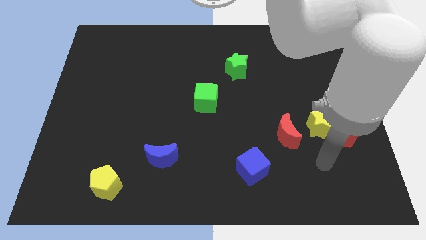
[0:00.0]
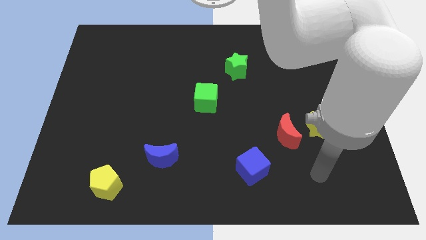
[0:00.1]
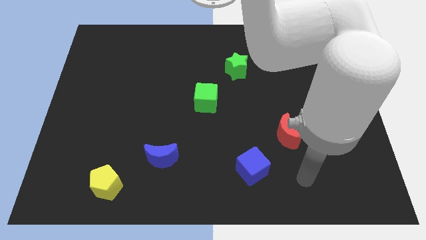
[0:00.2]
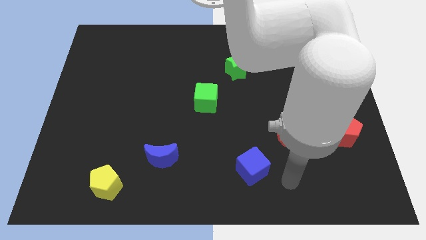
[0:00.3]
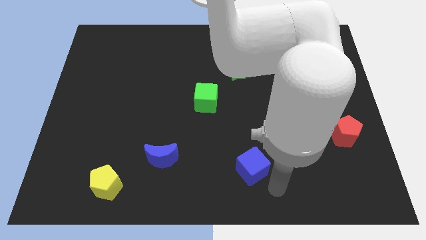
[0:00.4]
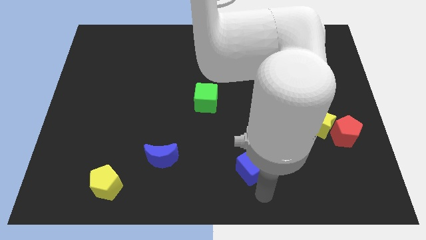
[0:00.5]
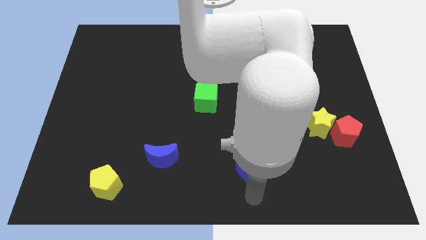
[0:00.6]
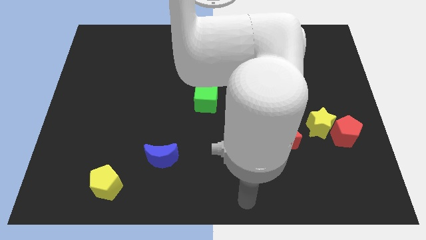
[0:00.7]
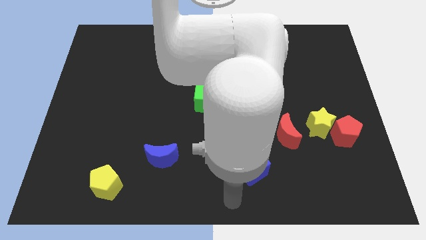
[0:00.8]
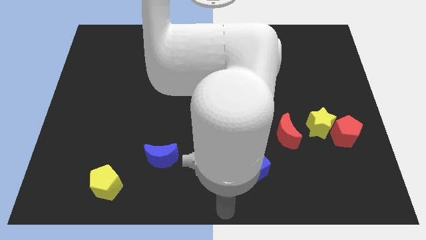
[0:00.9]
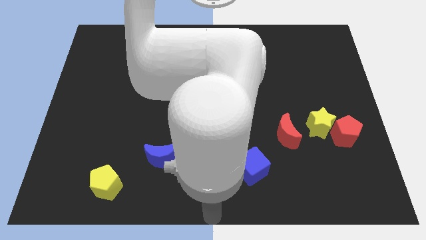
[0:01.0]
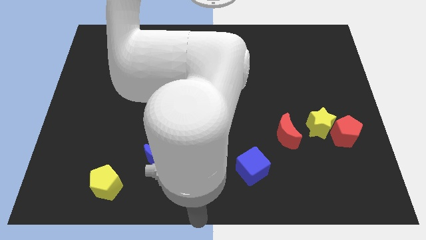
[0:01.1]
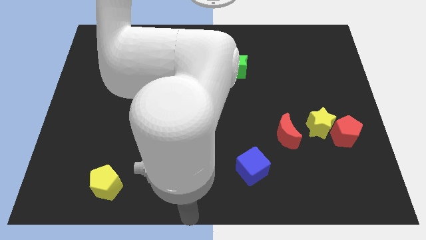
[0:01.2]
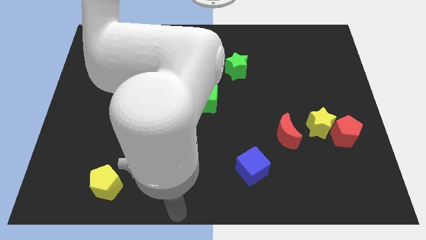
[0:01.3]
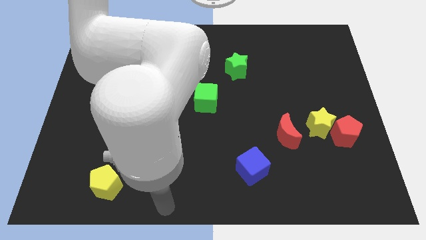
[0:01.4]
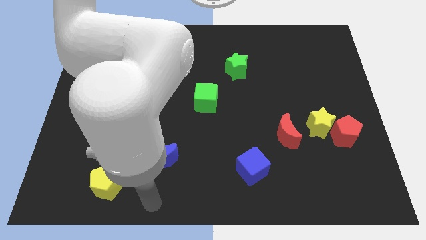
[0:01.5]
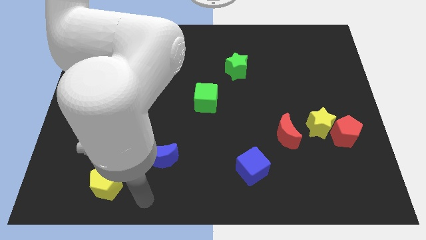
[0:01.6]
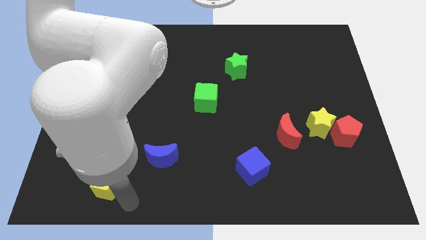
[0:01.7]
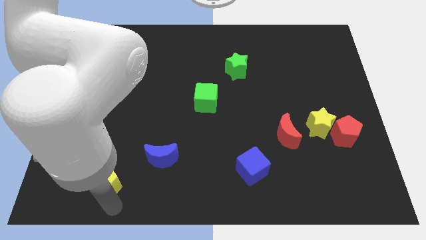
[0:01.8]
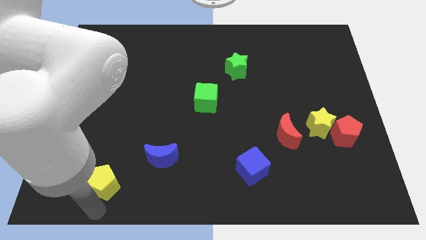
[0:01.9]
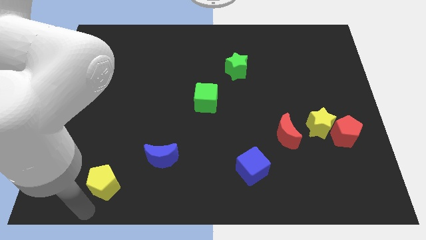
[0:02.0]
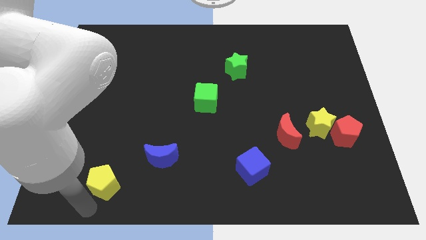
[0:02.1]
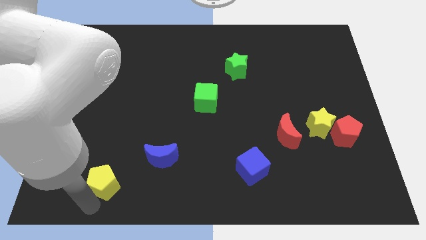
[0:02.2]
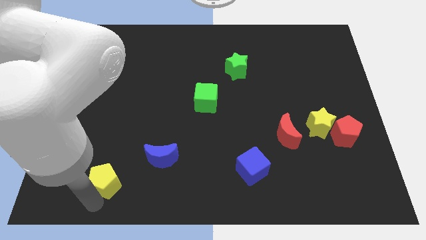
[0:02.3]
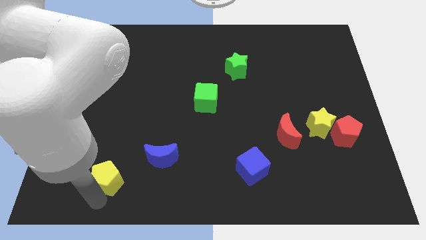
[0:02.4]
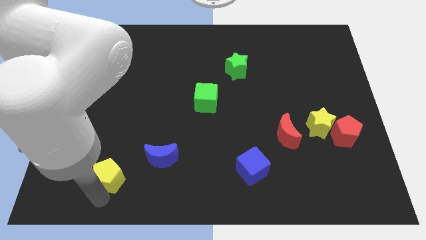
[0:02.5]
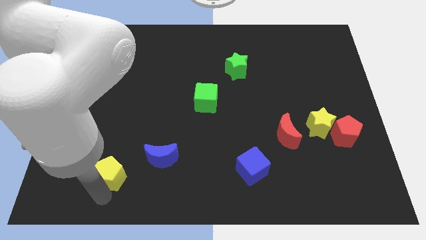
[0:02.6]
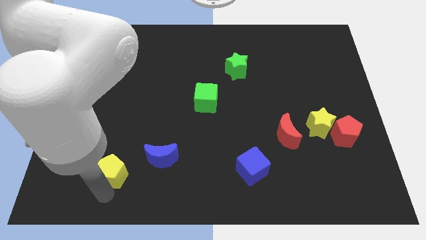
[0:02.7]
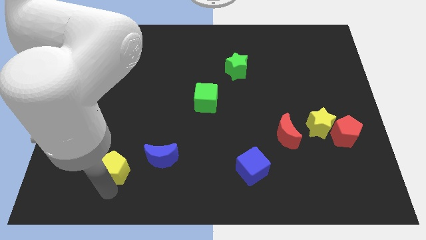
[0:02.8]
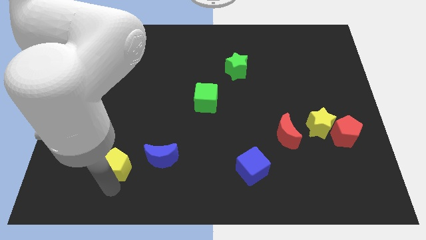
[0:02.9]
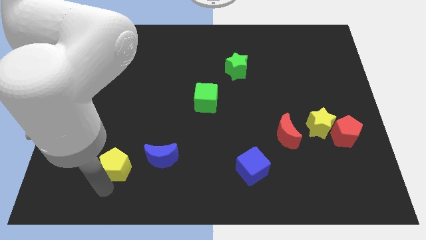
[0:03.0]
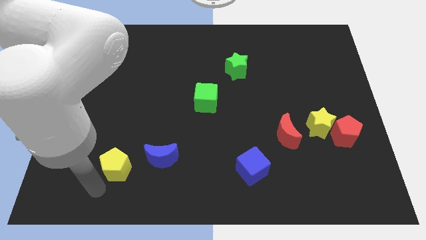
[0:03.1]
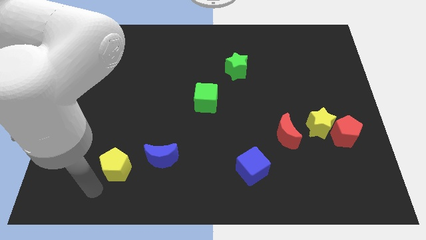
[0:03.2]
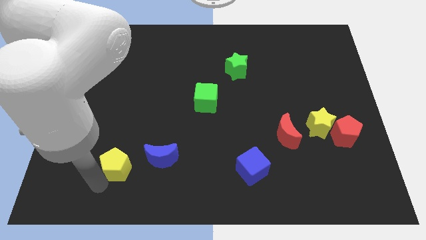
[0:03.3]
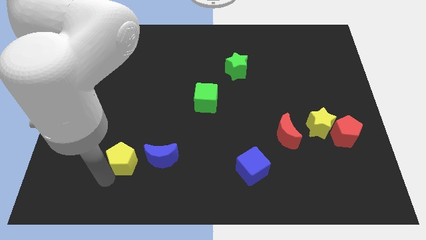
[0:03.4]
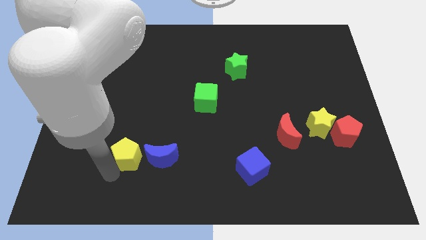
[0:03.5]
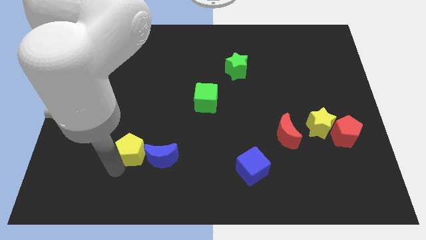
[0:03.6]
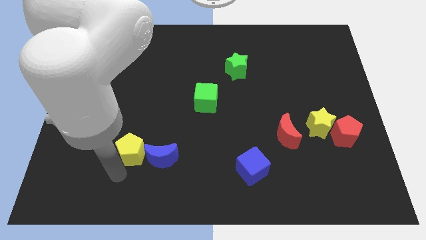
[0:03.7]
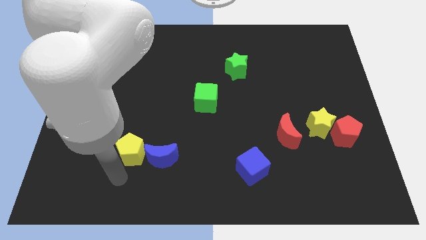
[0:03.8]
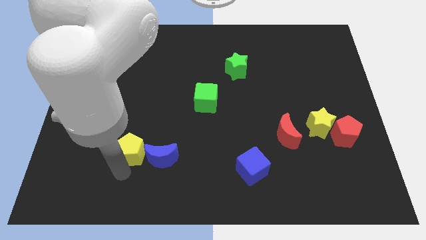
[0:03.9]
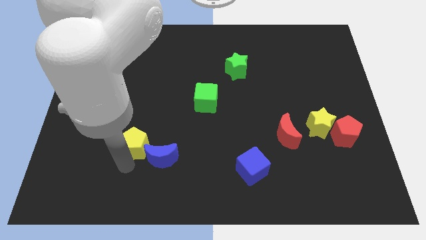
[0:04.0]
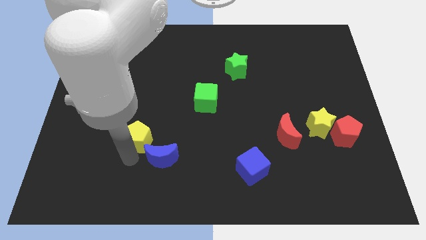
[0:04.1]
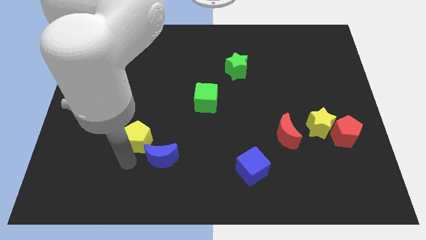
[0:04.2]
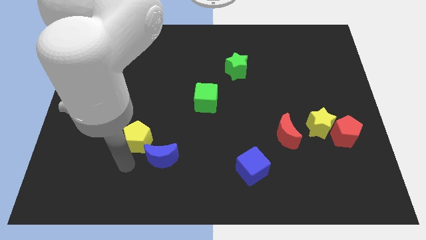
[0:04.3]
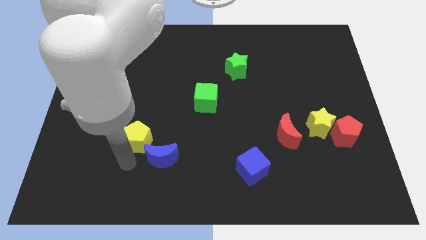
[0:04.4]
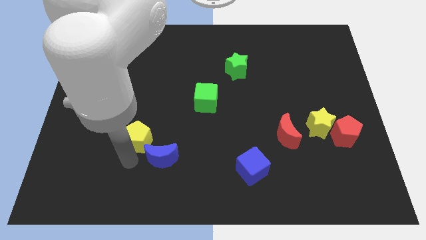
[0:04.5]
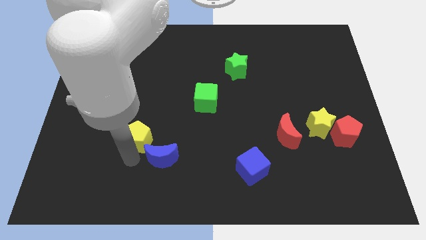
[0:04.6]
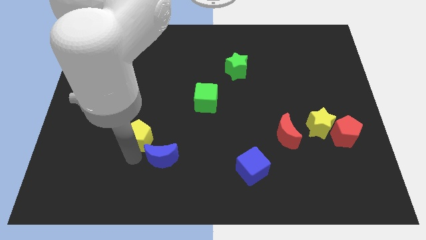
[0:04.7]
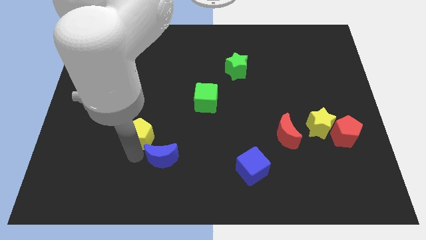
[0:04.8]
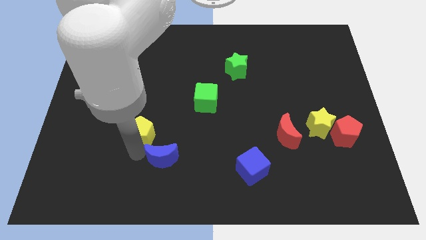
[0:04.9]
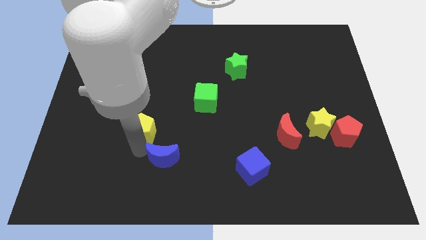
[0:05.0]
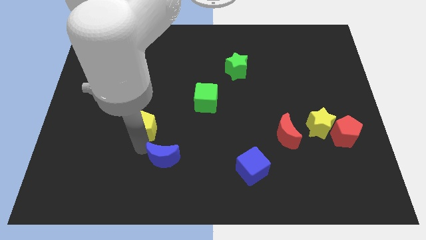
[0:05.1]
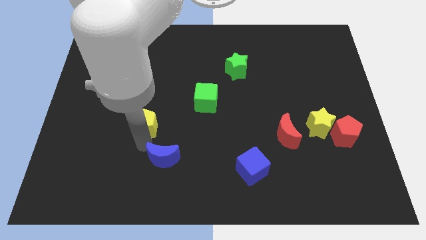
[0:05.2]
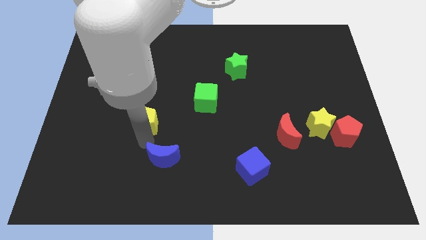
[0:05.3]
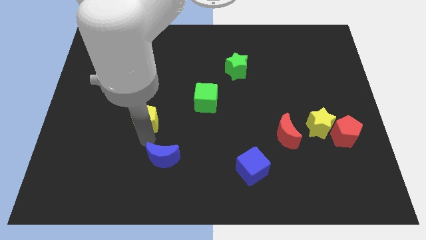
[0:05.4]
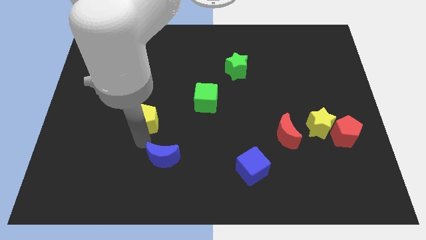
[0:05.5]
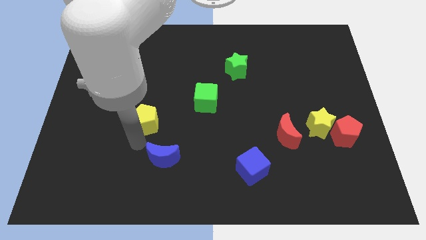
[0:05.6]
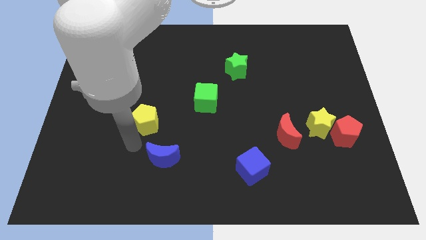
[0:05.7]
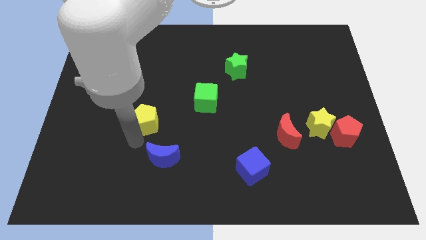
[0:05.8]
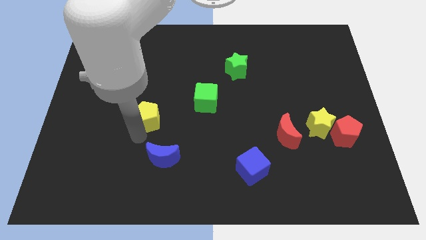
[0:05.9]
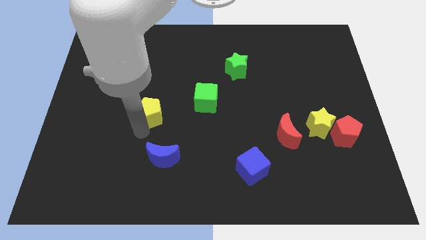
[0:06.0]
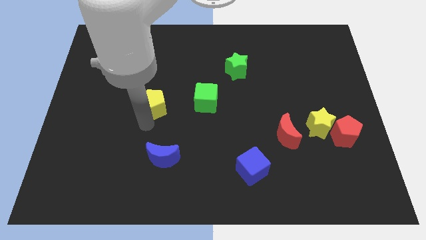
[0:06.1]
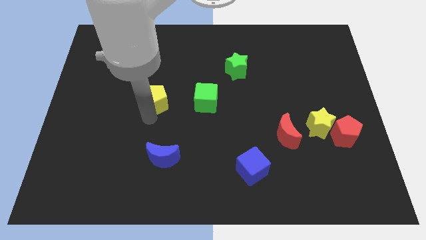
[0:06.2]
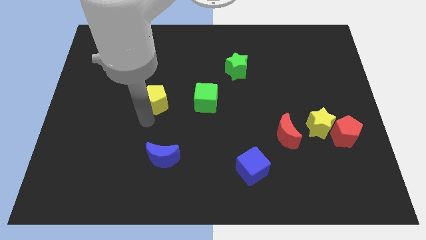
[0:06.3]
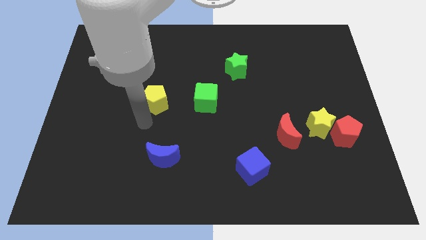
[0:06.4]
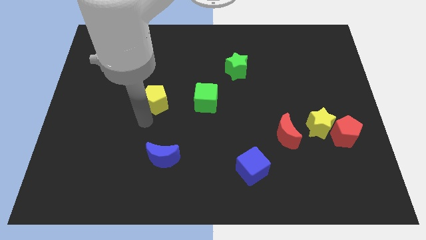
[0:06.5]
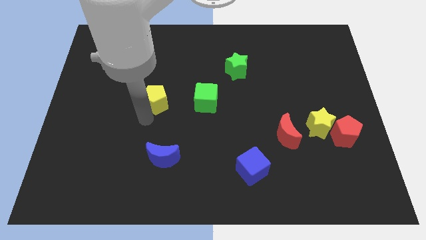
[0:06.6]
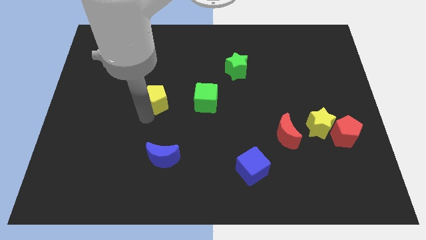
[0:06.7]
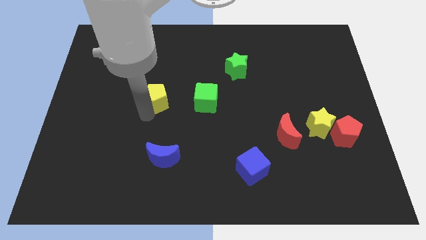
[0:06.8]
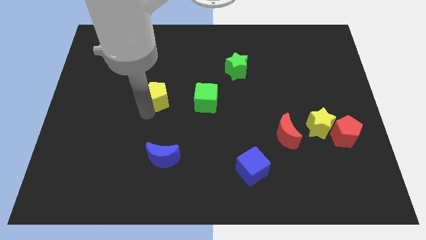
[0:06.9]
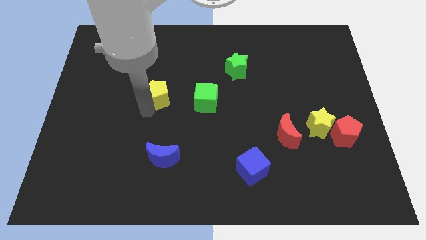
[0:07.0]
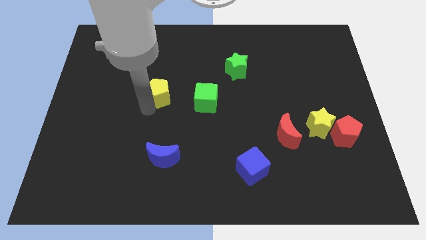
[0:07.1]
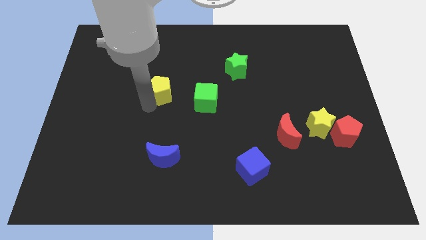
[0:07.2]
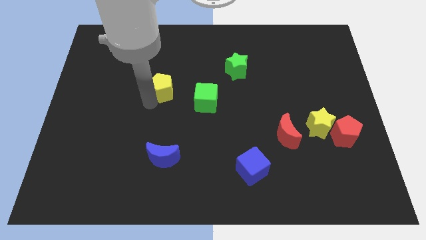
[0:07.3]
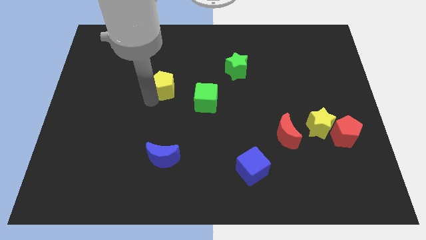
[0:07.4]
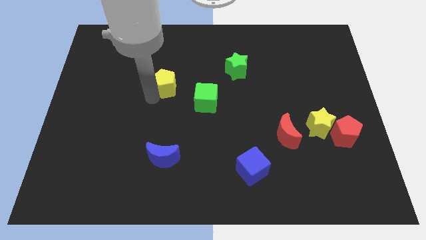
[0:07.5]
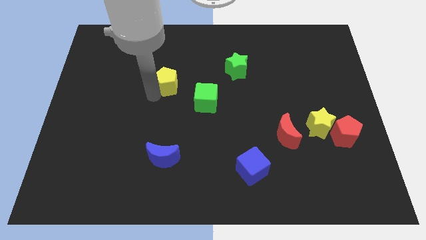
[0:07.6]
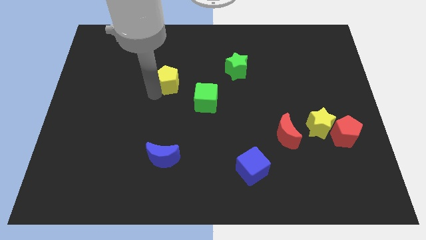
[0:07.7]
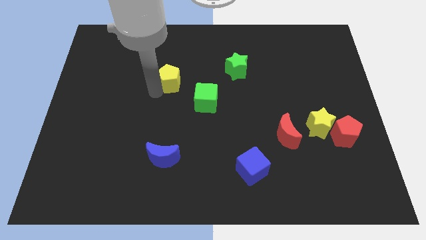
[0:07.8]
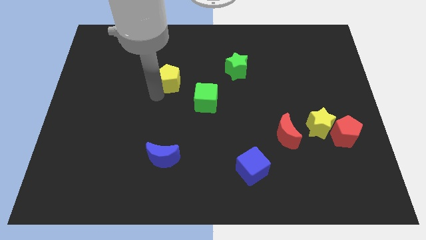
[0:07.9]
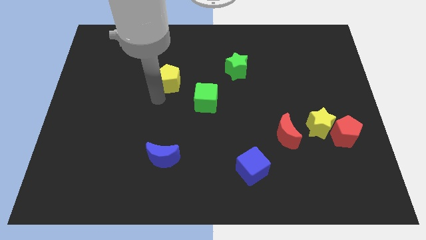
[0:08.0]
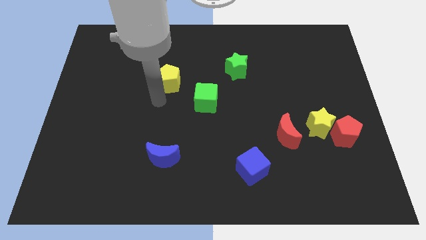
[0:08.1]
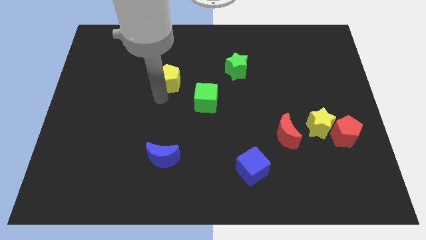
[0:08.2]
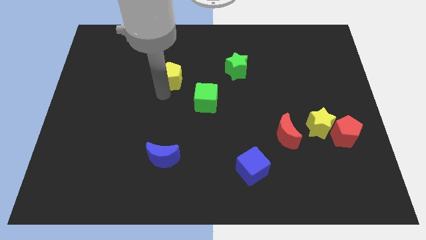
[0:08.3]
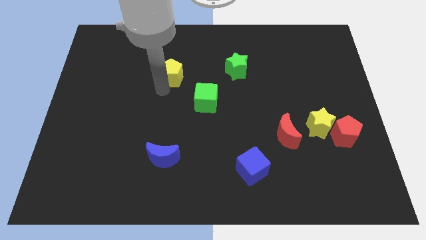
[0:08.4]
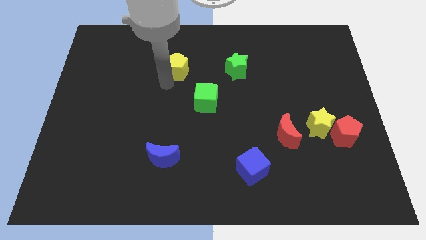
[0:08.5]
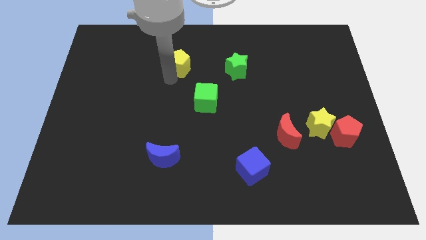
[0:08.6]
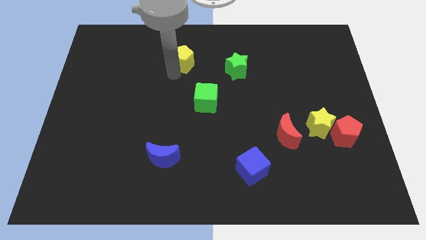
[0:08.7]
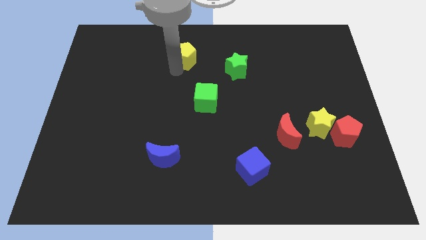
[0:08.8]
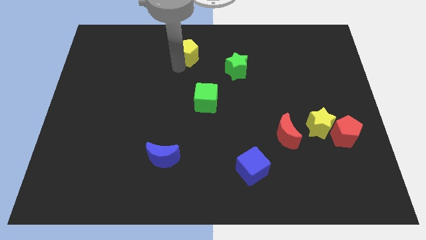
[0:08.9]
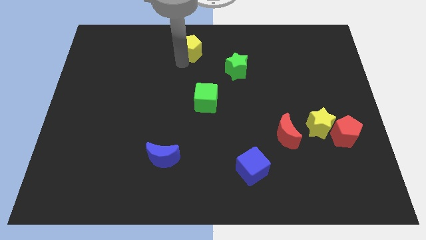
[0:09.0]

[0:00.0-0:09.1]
push the yellow pentagon to the top
